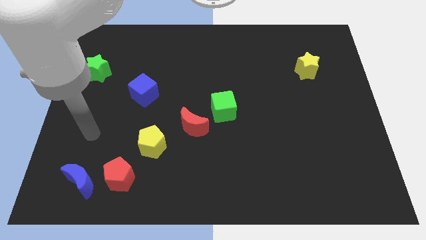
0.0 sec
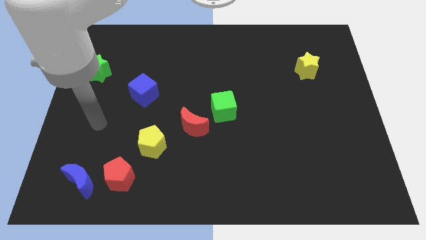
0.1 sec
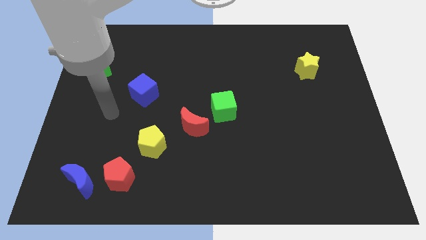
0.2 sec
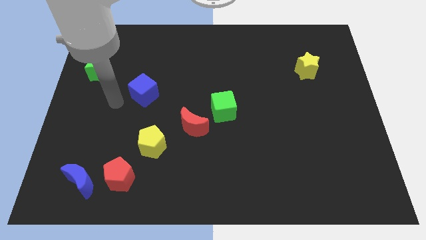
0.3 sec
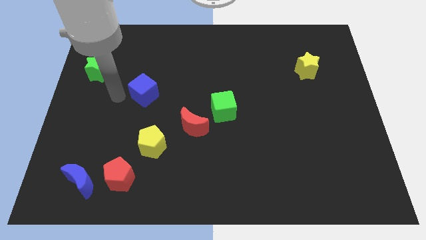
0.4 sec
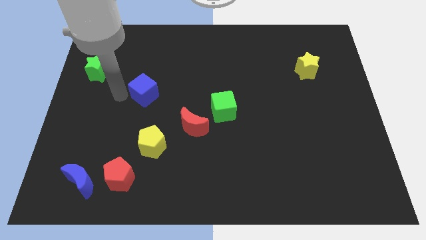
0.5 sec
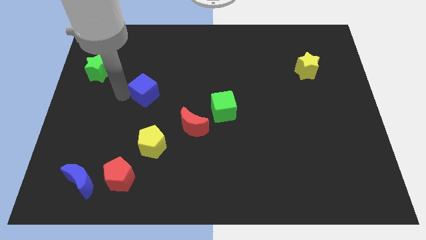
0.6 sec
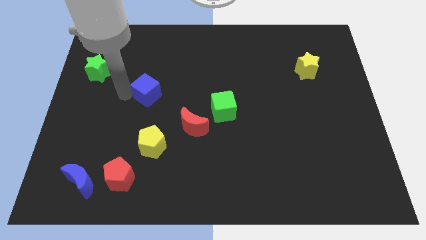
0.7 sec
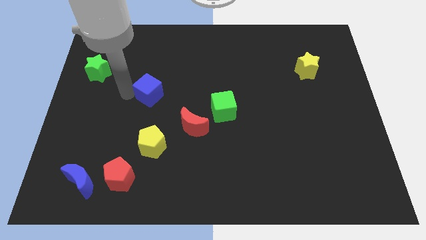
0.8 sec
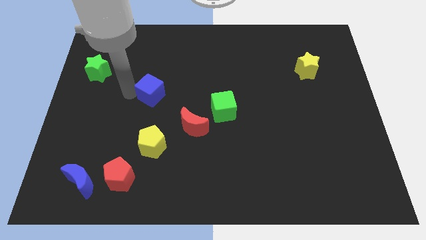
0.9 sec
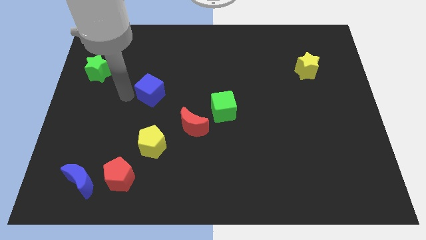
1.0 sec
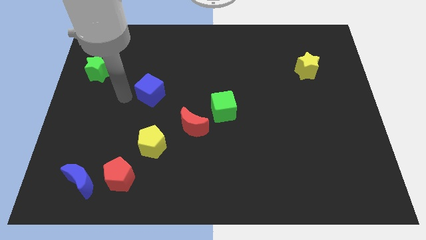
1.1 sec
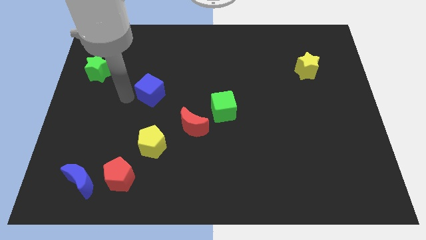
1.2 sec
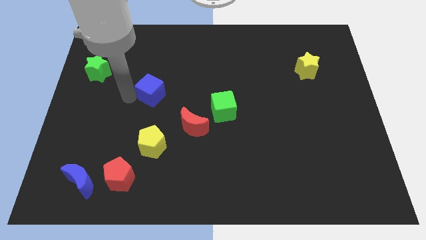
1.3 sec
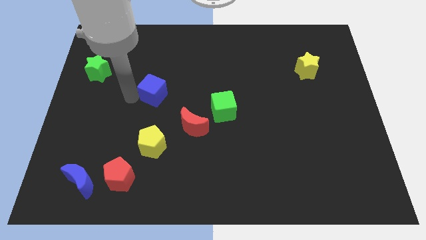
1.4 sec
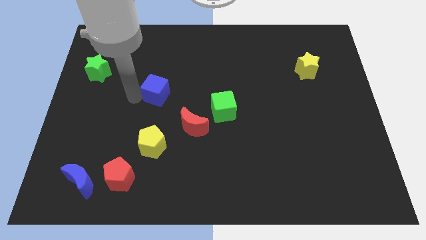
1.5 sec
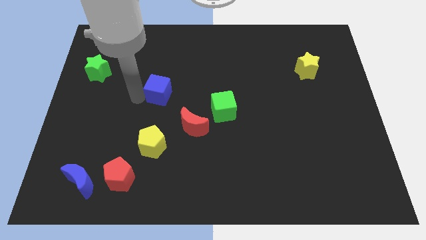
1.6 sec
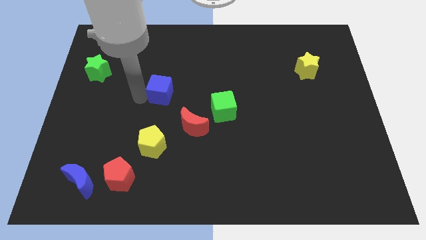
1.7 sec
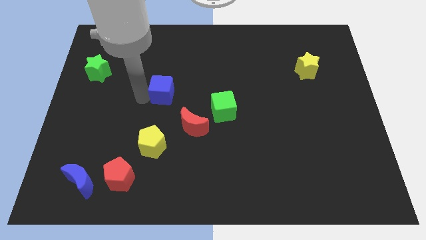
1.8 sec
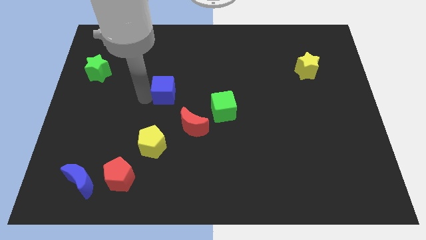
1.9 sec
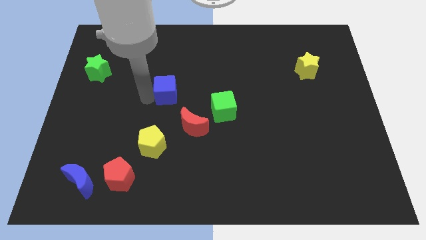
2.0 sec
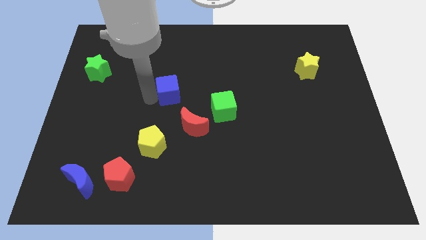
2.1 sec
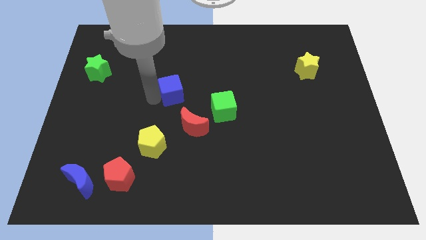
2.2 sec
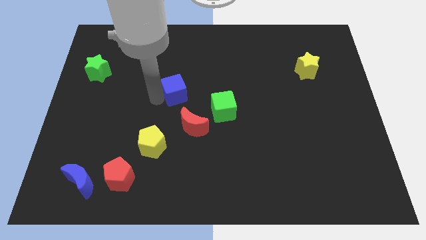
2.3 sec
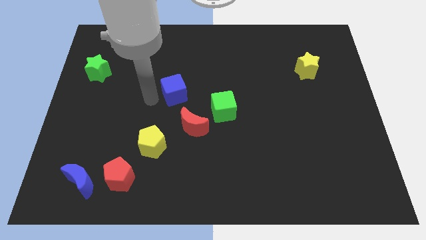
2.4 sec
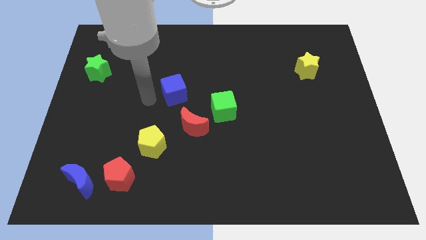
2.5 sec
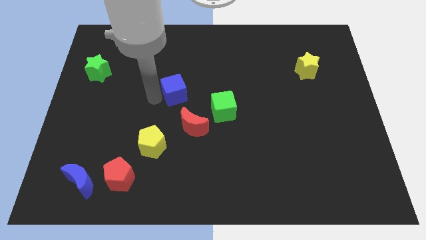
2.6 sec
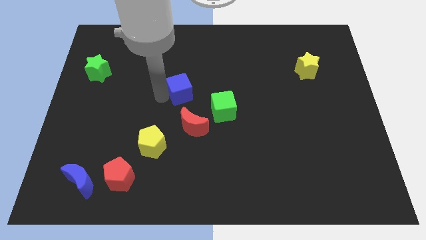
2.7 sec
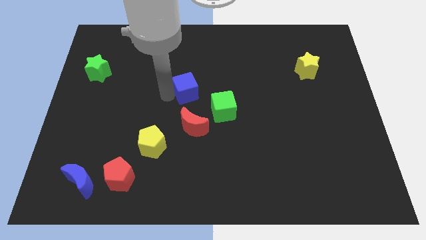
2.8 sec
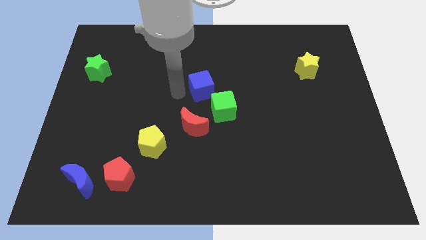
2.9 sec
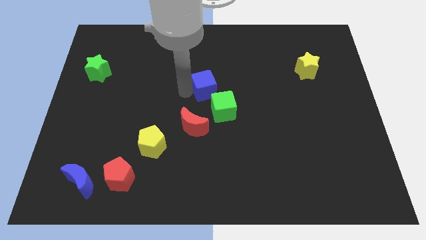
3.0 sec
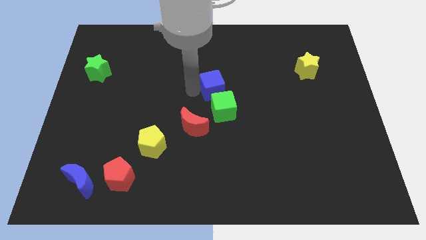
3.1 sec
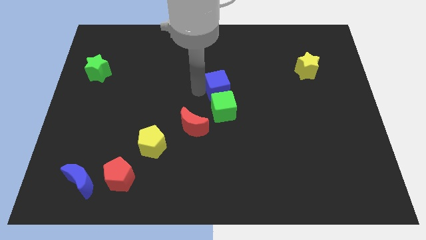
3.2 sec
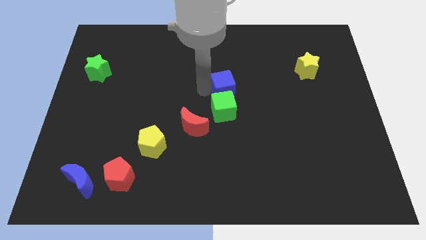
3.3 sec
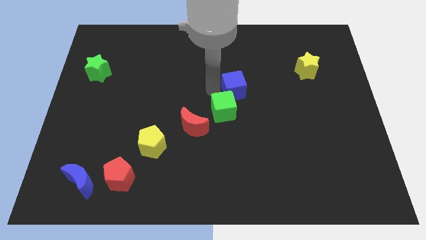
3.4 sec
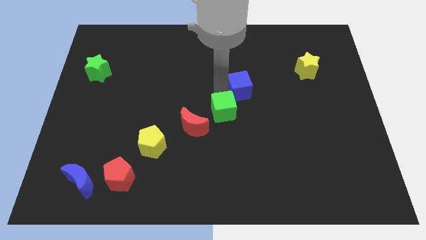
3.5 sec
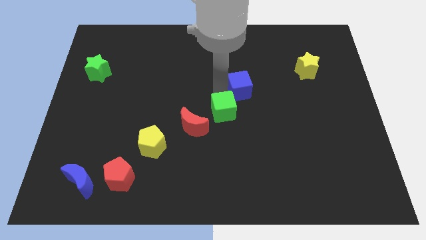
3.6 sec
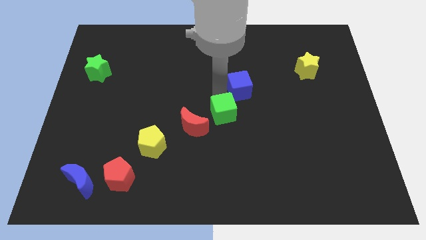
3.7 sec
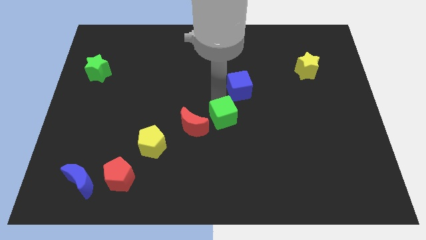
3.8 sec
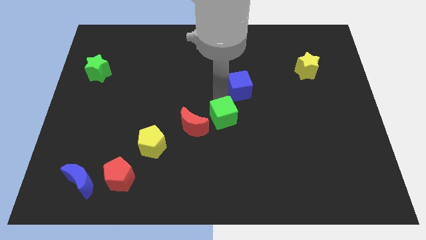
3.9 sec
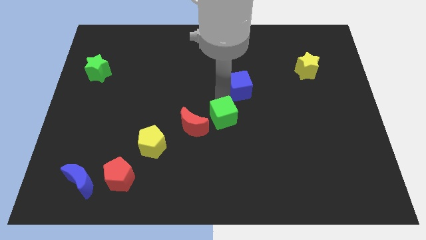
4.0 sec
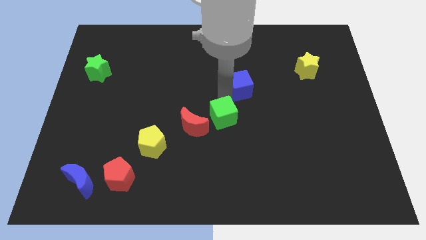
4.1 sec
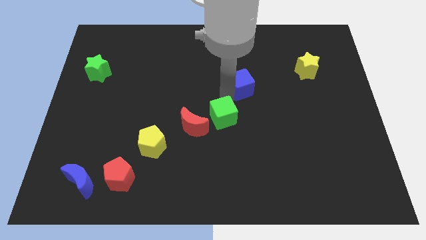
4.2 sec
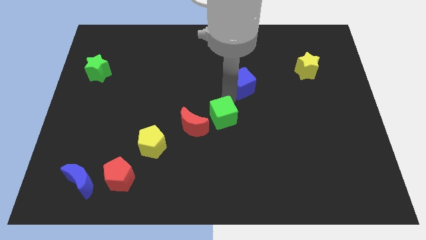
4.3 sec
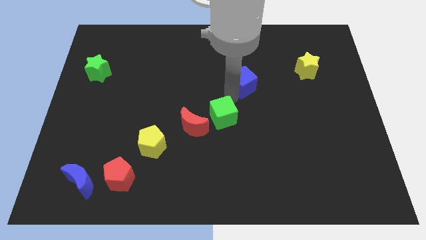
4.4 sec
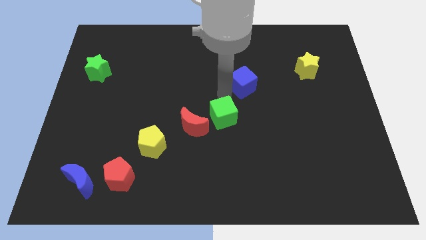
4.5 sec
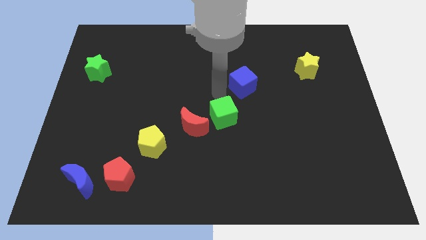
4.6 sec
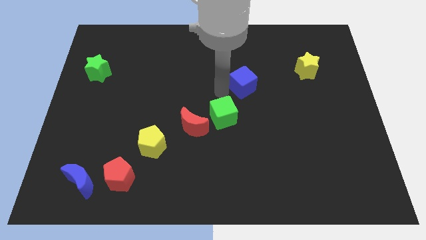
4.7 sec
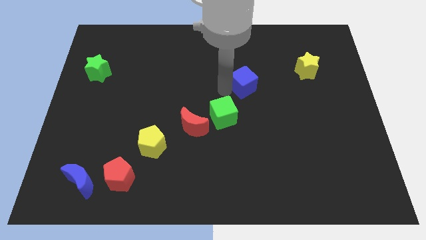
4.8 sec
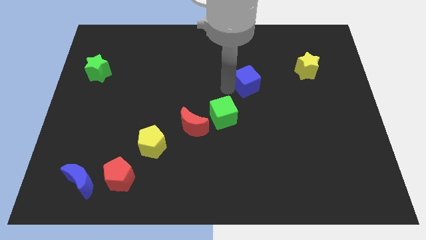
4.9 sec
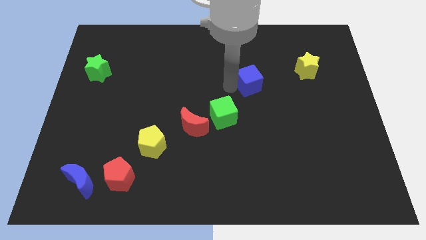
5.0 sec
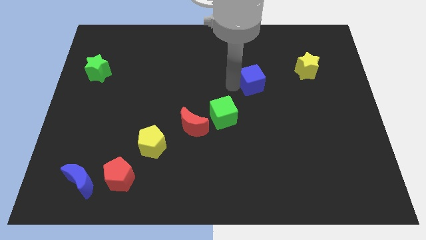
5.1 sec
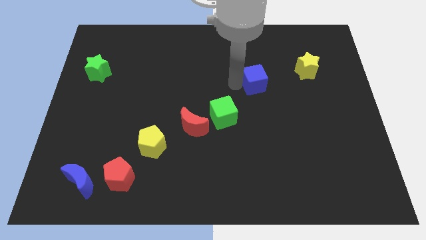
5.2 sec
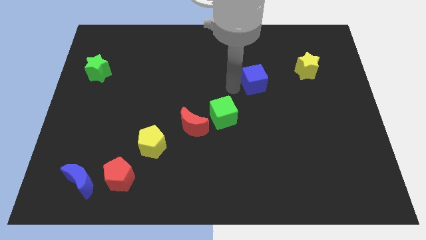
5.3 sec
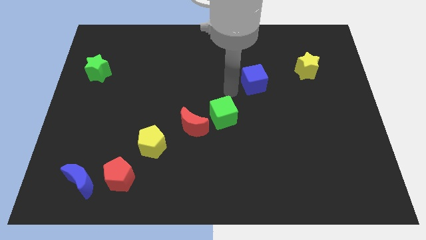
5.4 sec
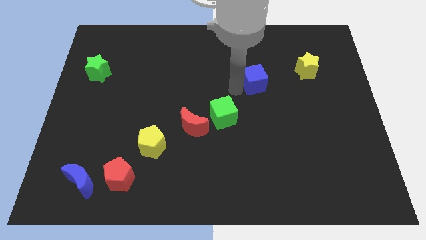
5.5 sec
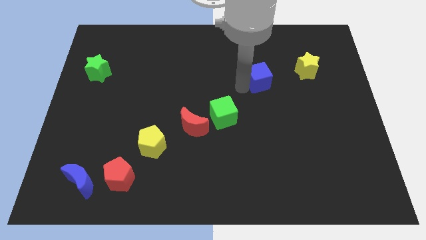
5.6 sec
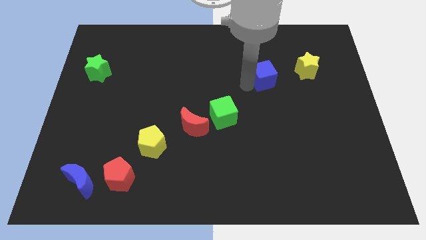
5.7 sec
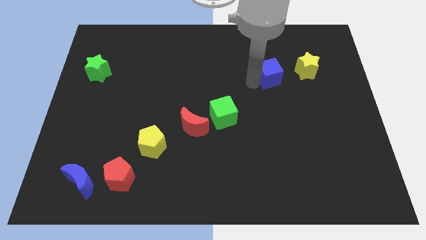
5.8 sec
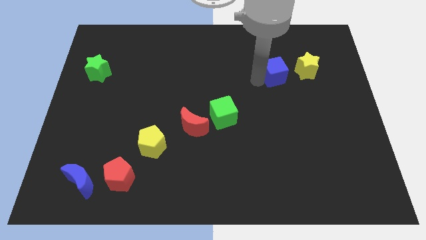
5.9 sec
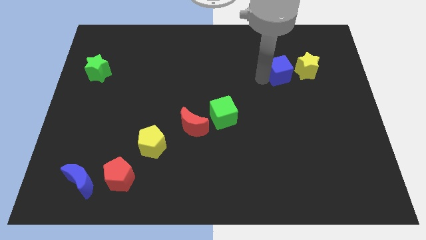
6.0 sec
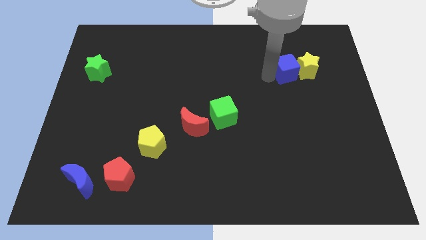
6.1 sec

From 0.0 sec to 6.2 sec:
move the blue cube towards the yellow star

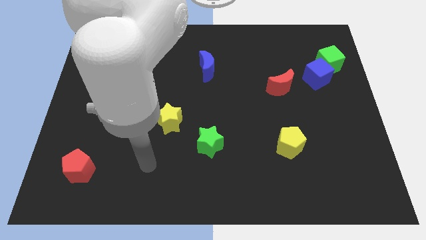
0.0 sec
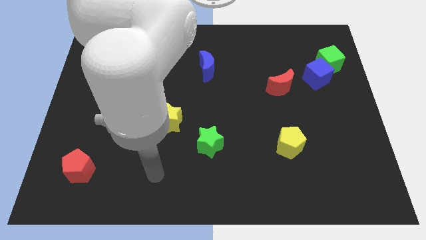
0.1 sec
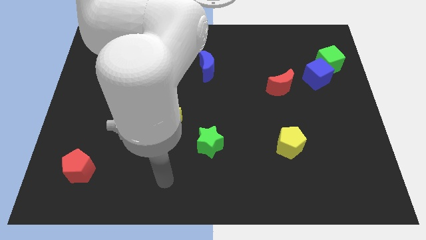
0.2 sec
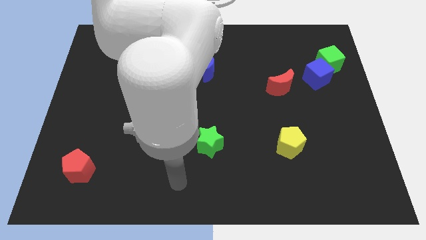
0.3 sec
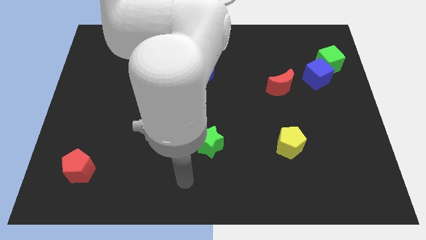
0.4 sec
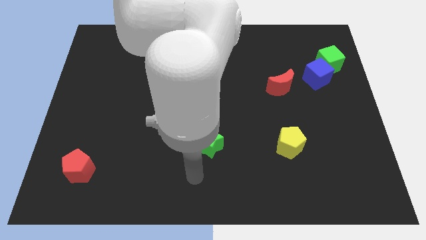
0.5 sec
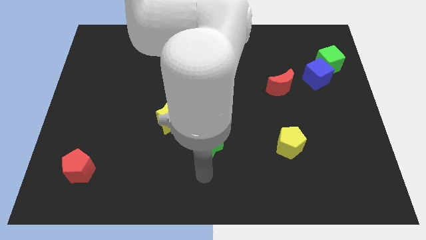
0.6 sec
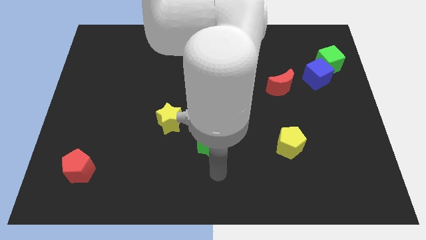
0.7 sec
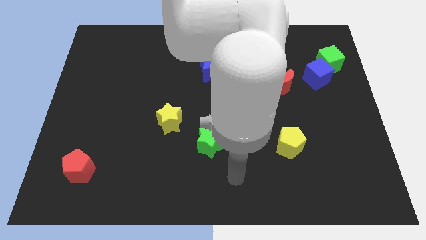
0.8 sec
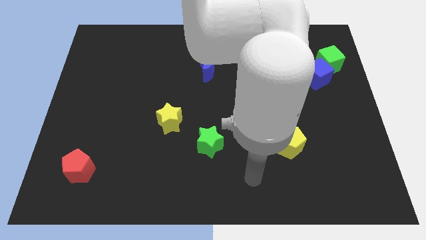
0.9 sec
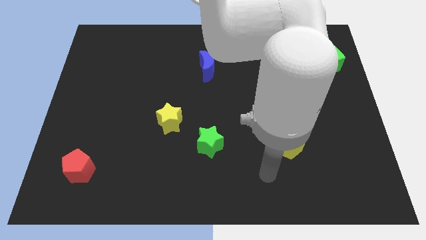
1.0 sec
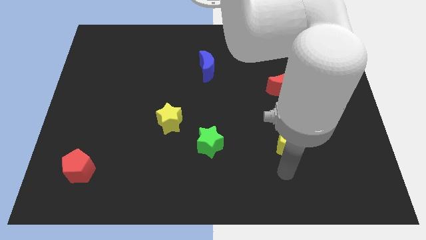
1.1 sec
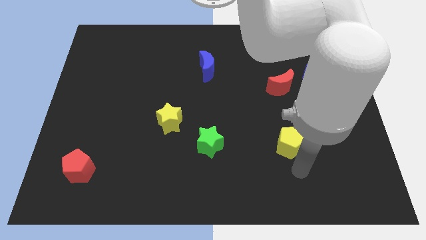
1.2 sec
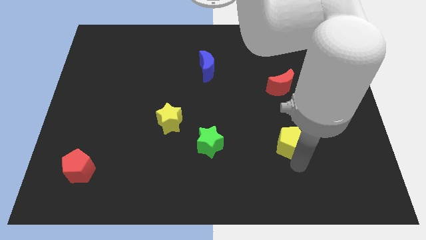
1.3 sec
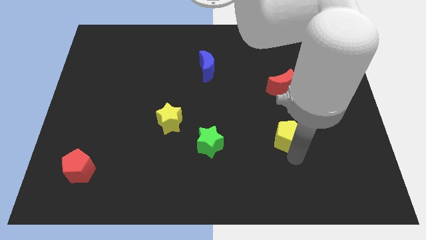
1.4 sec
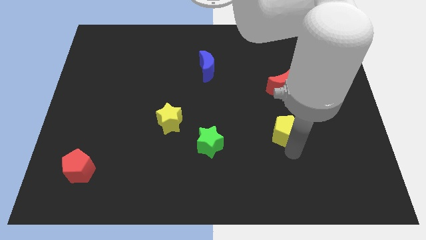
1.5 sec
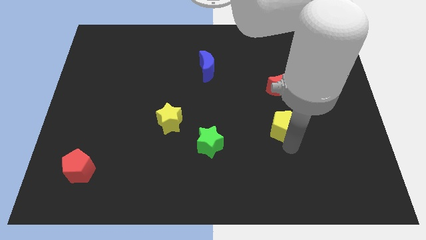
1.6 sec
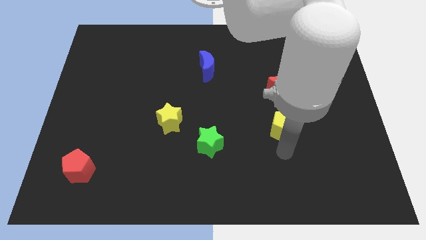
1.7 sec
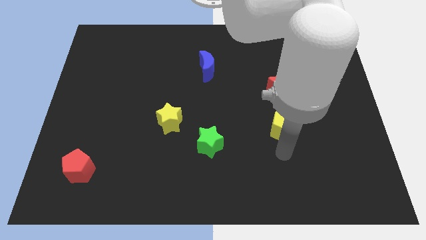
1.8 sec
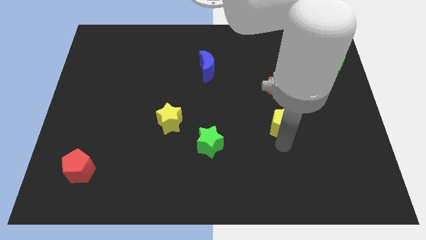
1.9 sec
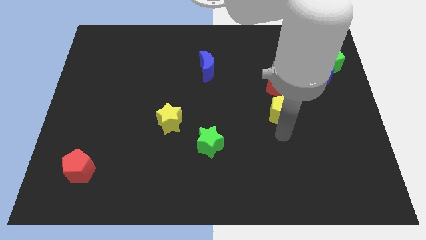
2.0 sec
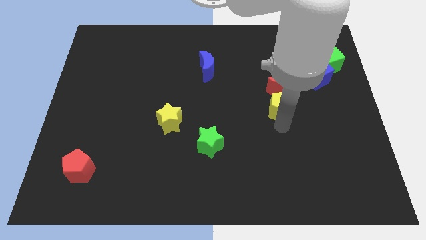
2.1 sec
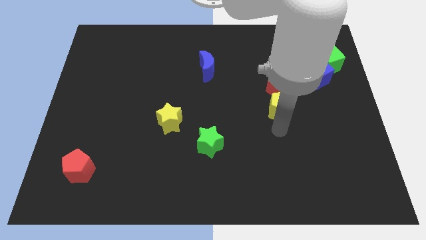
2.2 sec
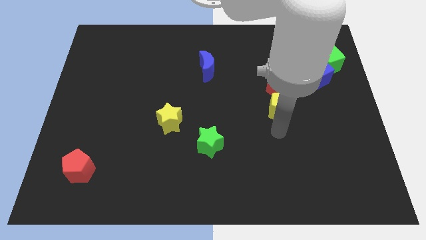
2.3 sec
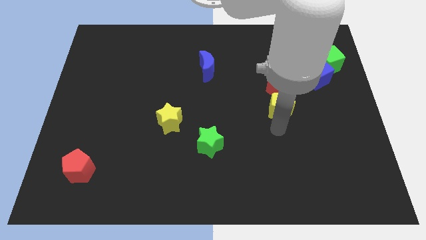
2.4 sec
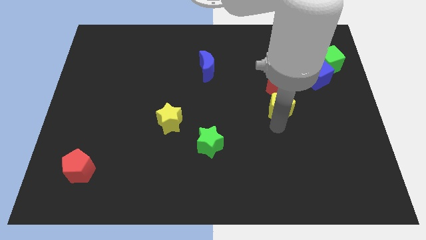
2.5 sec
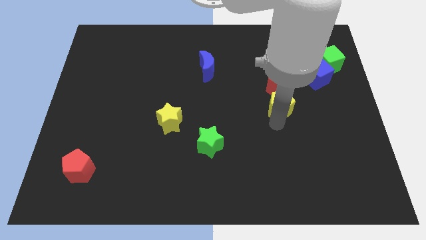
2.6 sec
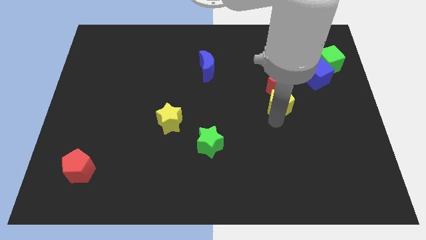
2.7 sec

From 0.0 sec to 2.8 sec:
slide the yellow pentagon towards the red moon
